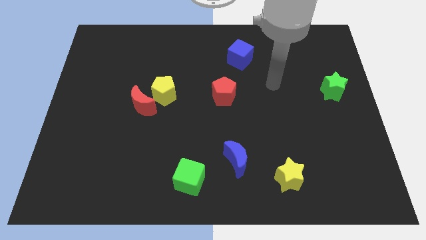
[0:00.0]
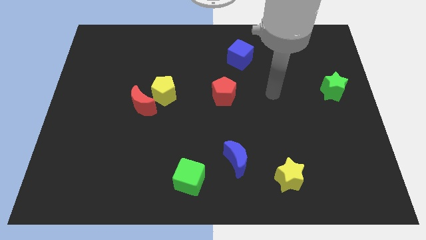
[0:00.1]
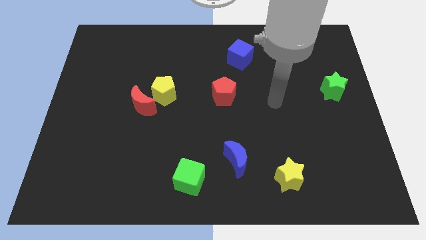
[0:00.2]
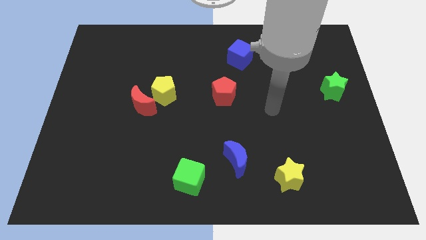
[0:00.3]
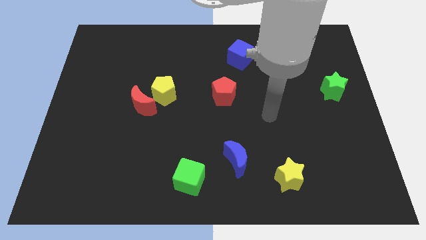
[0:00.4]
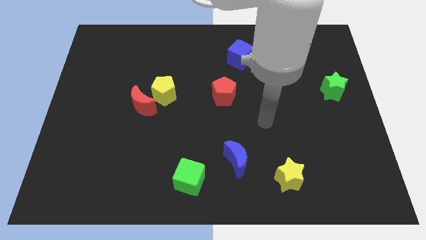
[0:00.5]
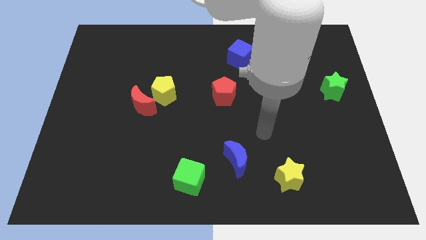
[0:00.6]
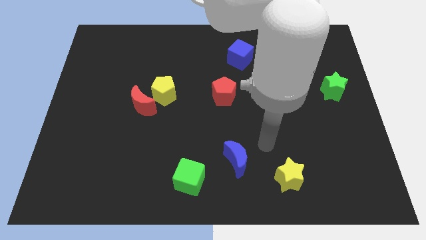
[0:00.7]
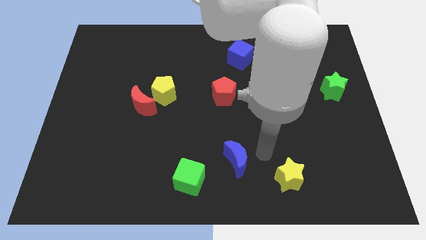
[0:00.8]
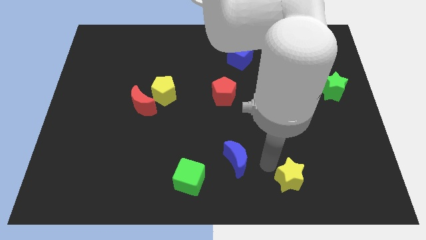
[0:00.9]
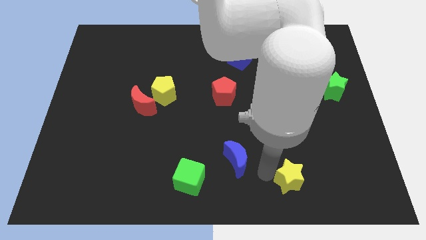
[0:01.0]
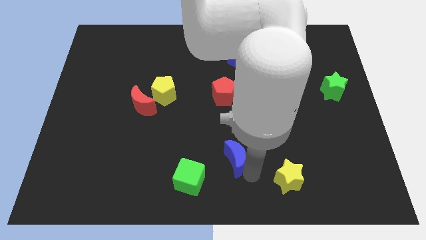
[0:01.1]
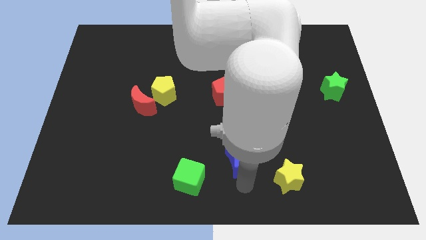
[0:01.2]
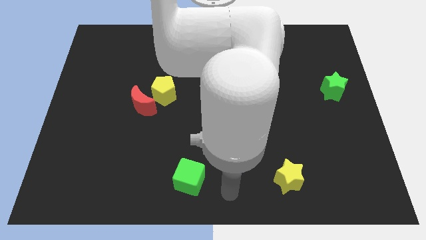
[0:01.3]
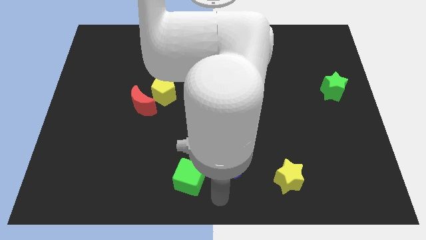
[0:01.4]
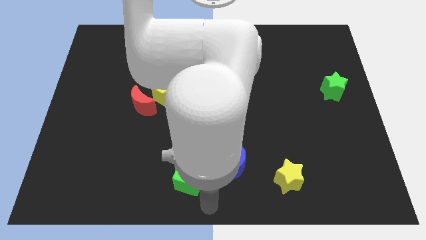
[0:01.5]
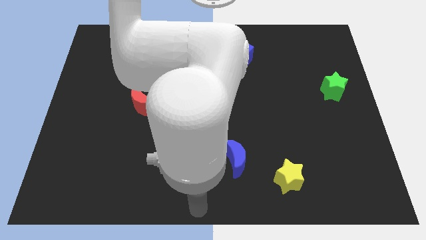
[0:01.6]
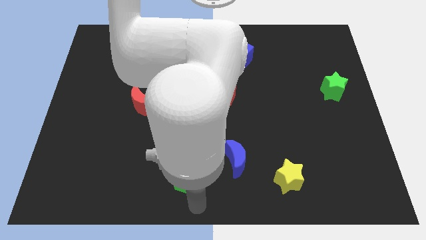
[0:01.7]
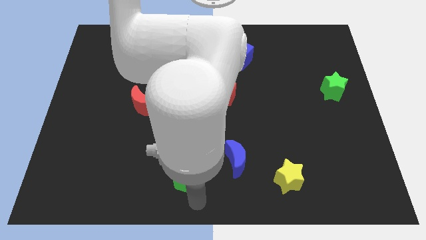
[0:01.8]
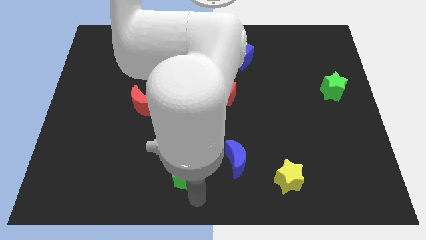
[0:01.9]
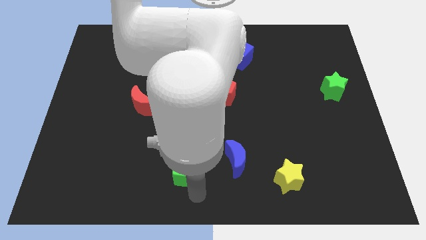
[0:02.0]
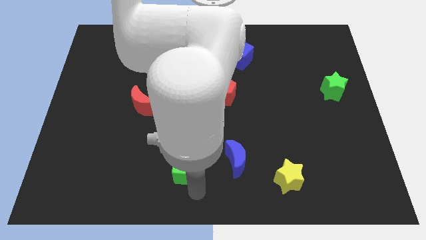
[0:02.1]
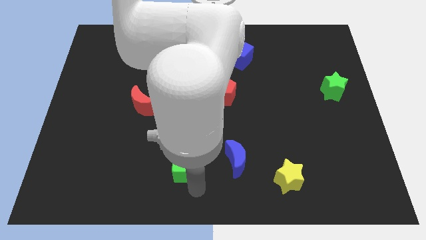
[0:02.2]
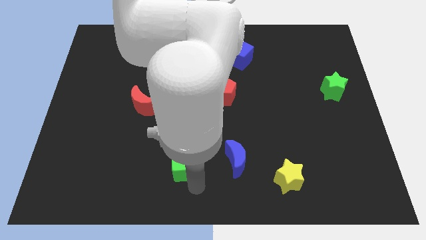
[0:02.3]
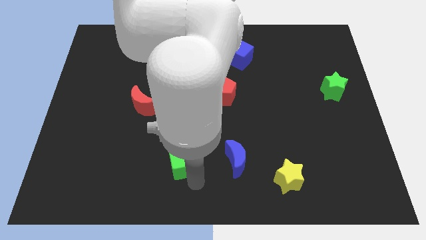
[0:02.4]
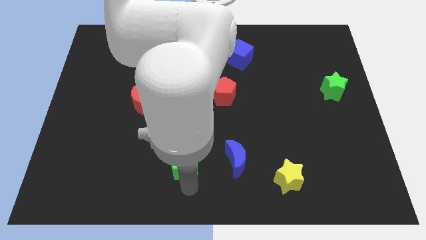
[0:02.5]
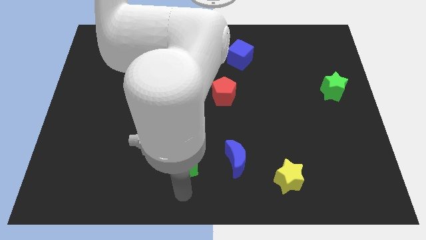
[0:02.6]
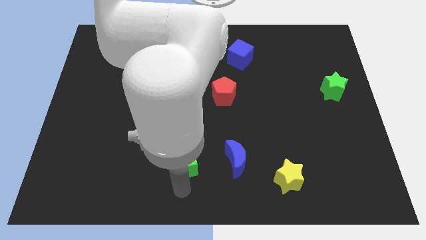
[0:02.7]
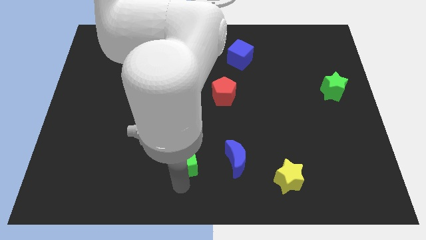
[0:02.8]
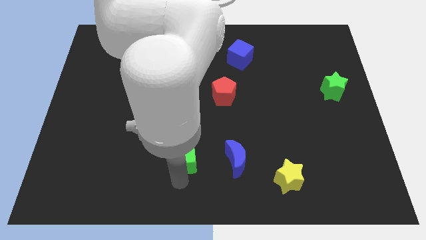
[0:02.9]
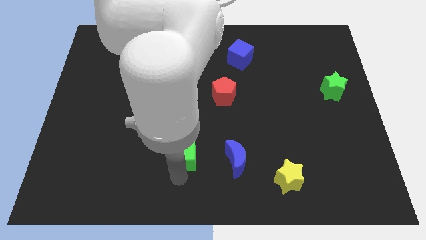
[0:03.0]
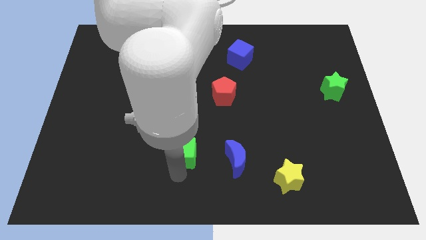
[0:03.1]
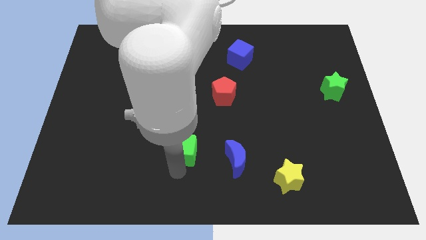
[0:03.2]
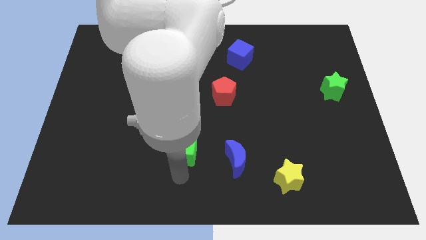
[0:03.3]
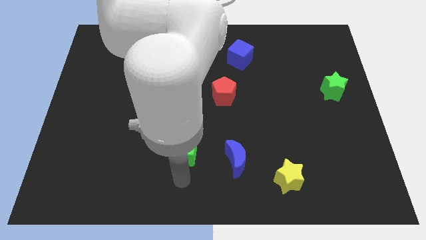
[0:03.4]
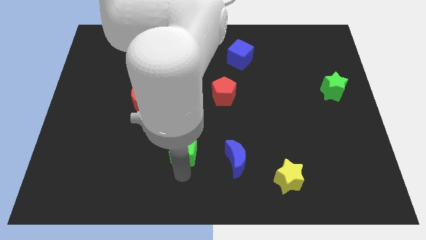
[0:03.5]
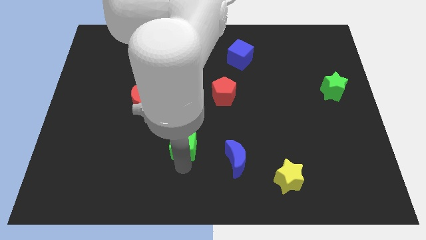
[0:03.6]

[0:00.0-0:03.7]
slide the green cube slightly up

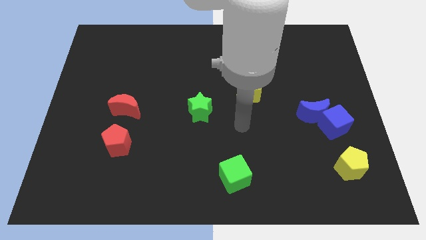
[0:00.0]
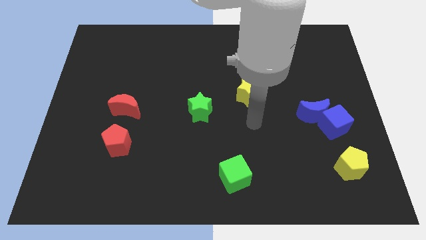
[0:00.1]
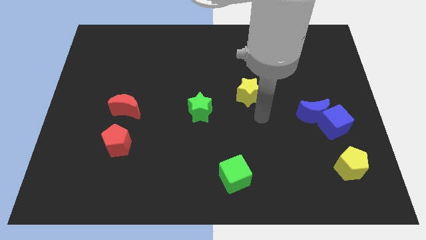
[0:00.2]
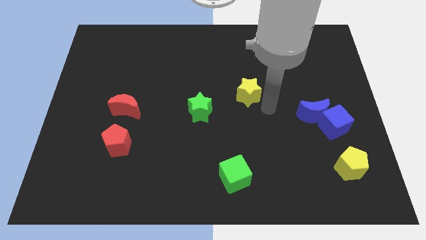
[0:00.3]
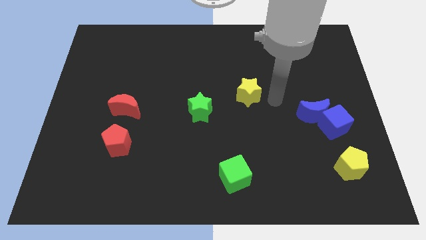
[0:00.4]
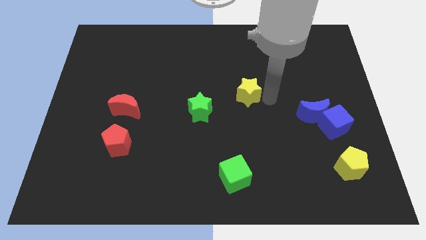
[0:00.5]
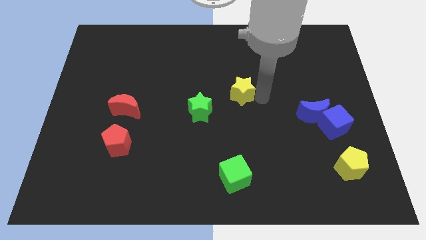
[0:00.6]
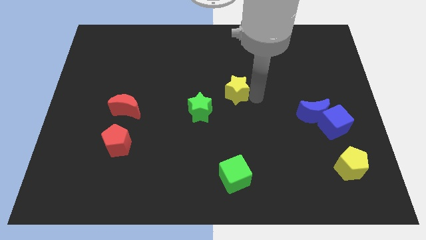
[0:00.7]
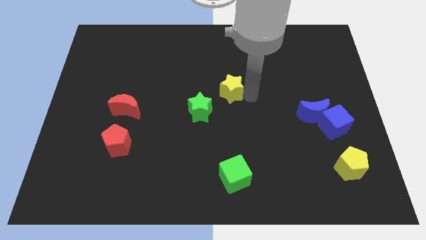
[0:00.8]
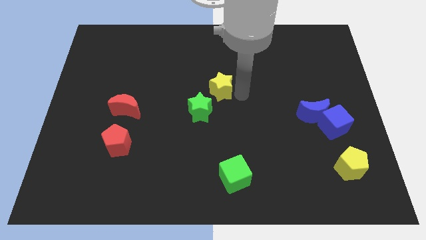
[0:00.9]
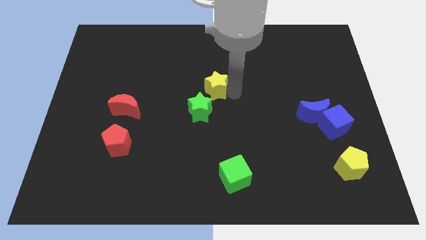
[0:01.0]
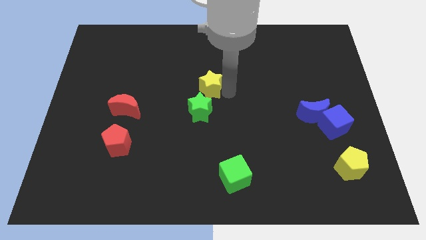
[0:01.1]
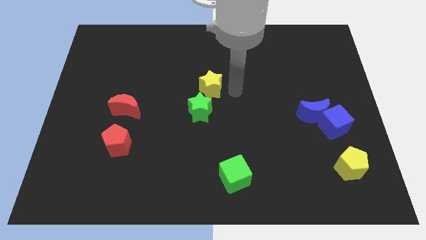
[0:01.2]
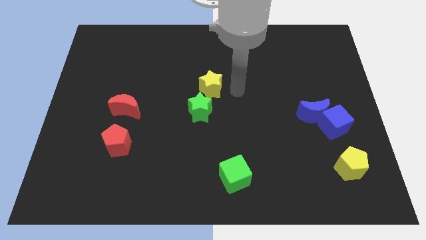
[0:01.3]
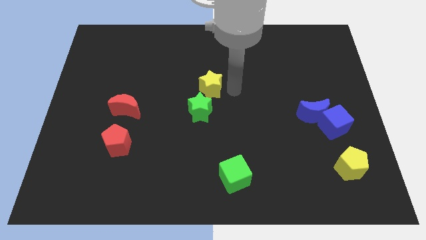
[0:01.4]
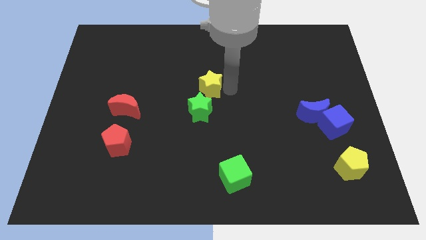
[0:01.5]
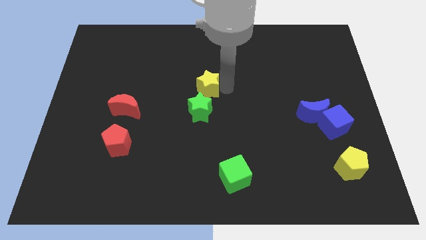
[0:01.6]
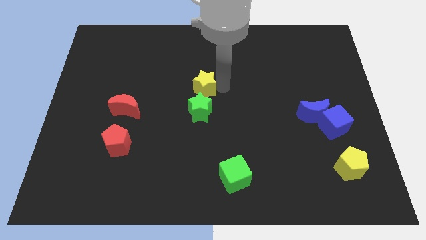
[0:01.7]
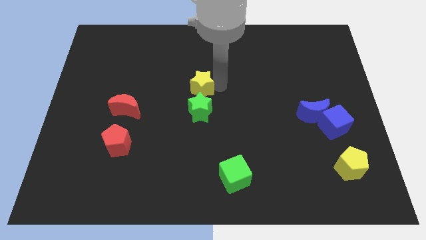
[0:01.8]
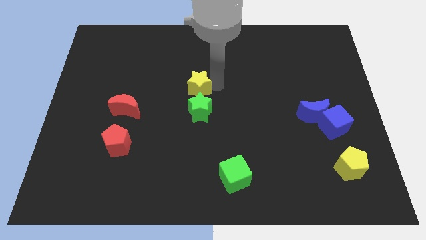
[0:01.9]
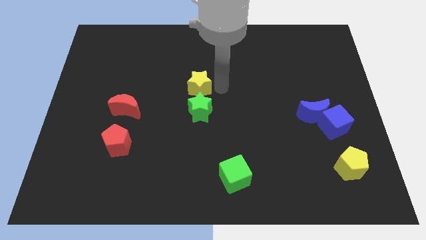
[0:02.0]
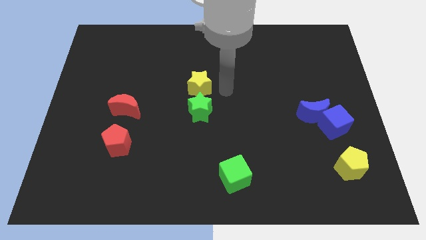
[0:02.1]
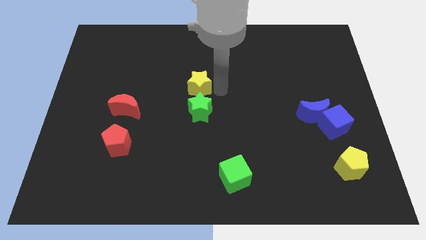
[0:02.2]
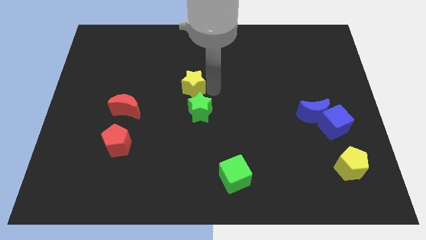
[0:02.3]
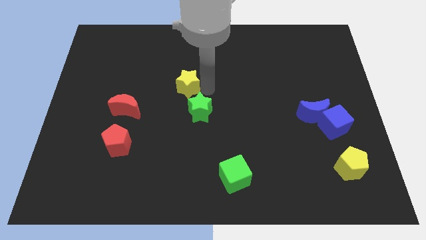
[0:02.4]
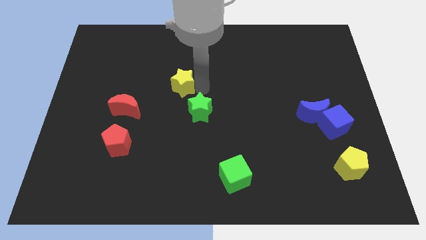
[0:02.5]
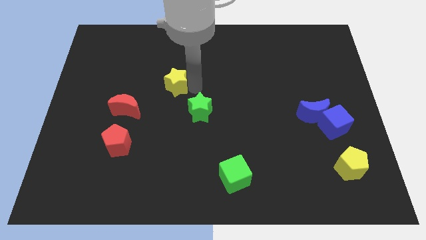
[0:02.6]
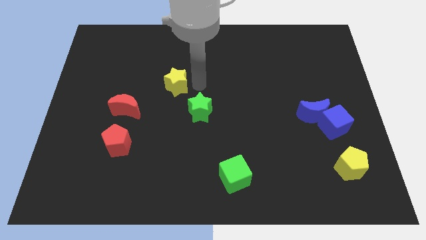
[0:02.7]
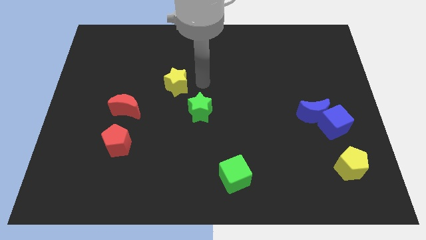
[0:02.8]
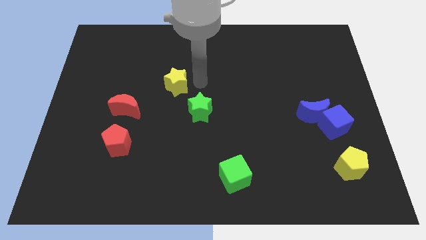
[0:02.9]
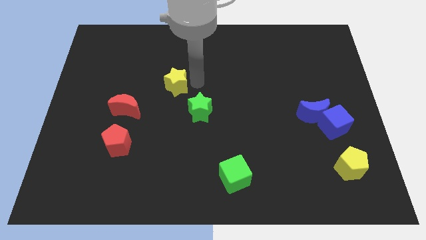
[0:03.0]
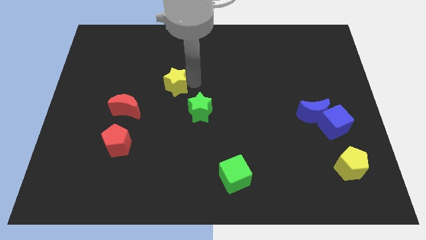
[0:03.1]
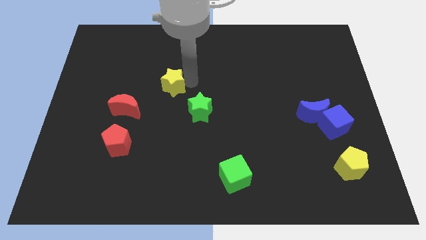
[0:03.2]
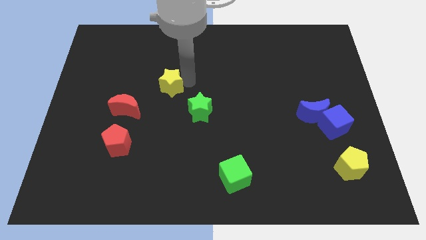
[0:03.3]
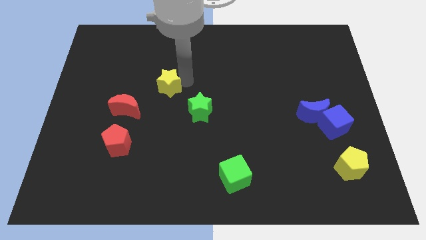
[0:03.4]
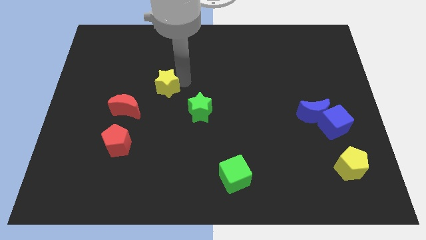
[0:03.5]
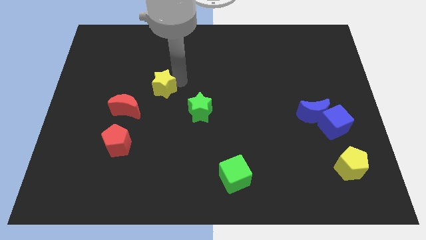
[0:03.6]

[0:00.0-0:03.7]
move the yellow star left

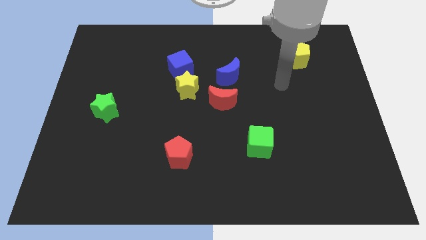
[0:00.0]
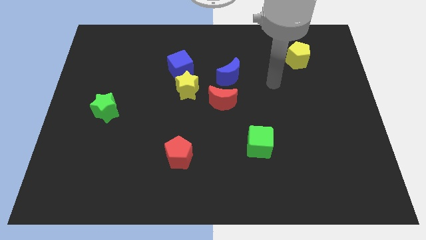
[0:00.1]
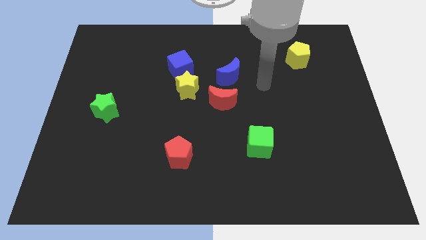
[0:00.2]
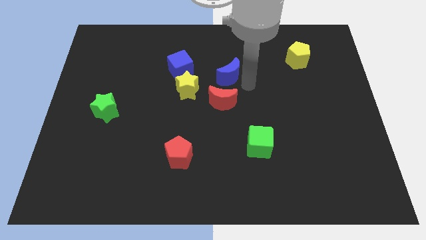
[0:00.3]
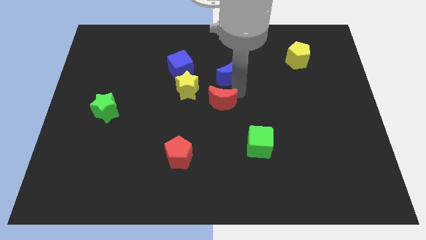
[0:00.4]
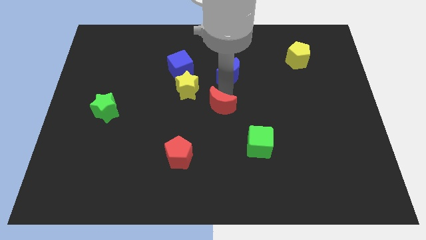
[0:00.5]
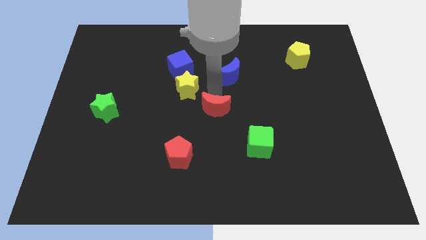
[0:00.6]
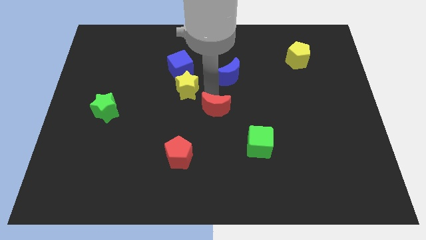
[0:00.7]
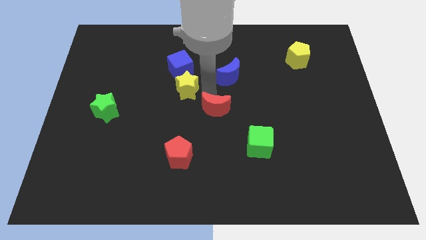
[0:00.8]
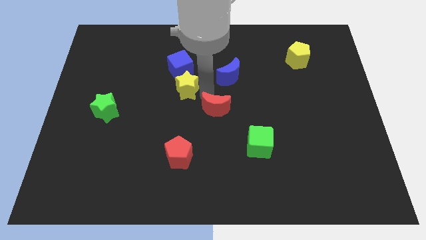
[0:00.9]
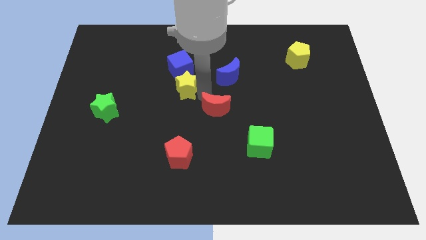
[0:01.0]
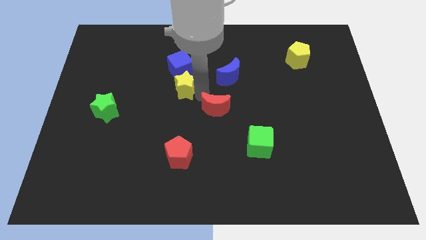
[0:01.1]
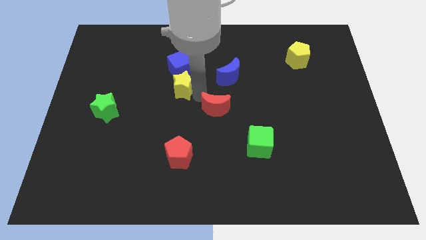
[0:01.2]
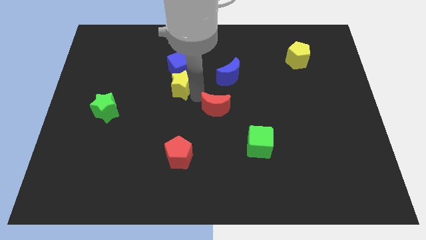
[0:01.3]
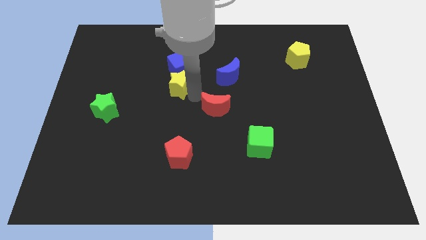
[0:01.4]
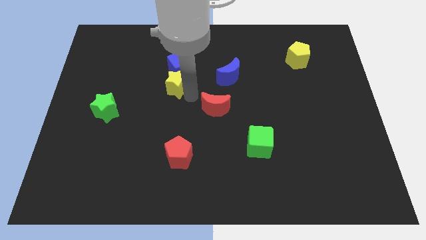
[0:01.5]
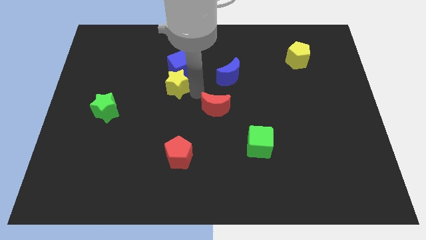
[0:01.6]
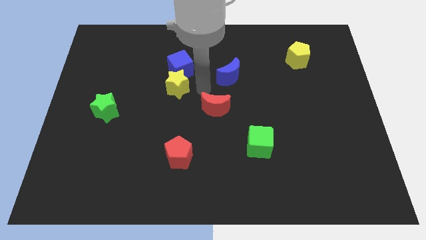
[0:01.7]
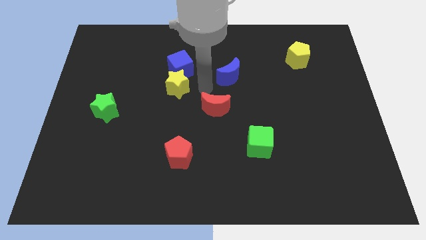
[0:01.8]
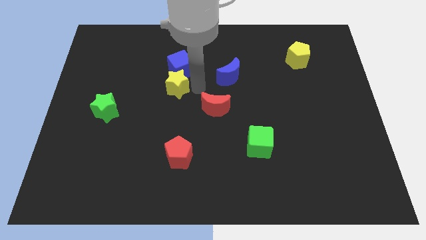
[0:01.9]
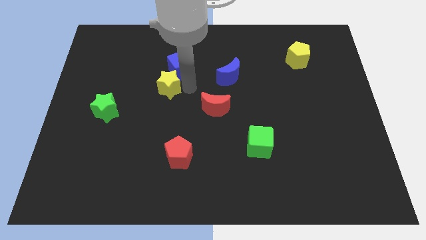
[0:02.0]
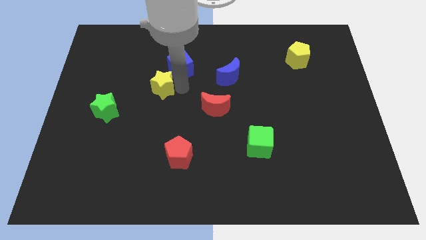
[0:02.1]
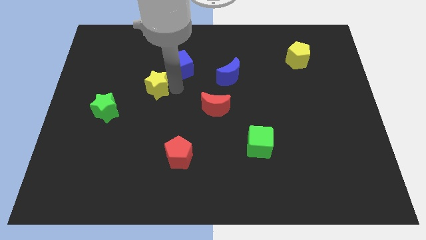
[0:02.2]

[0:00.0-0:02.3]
slightly slide the yellow star left
